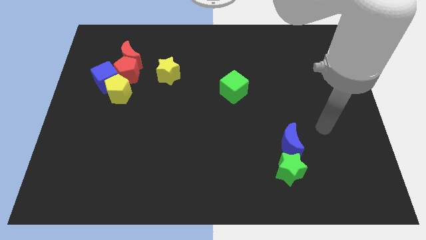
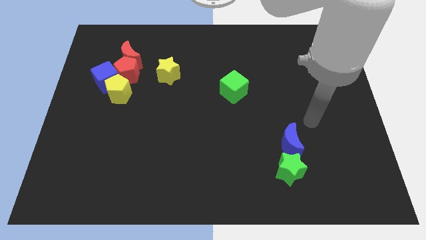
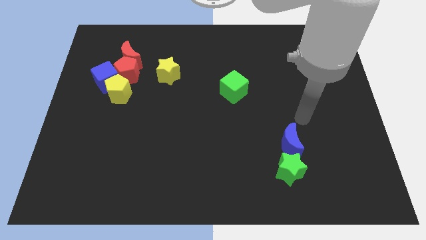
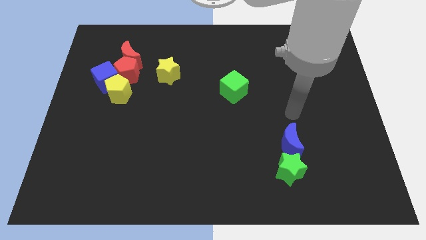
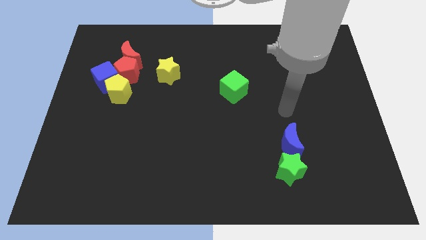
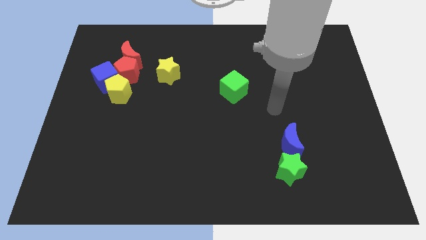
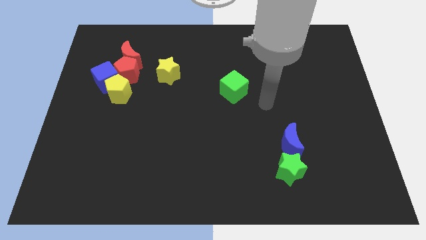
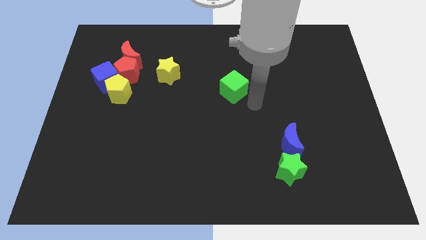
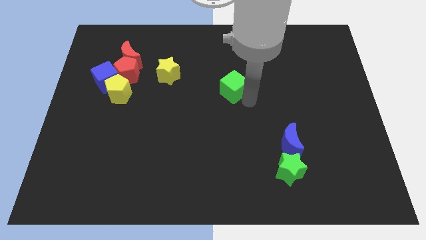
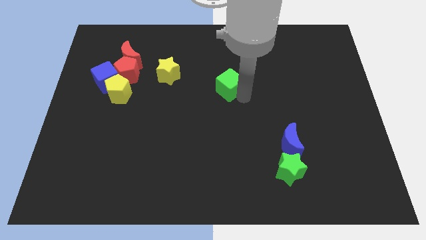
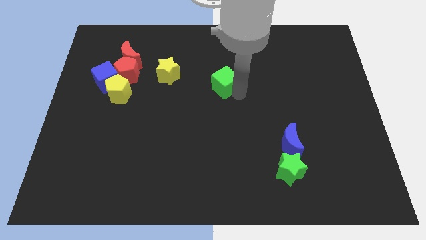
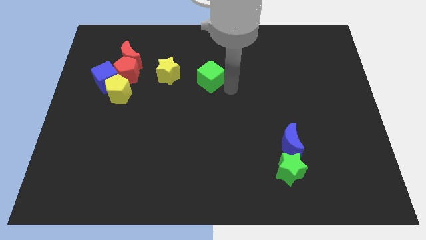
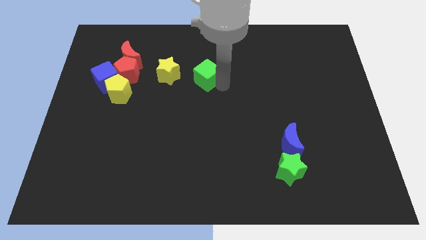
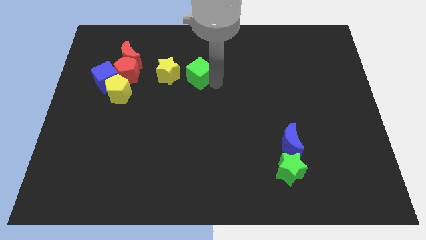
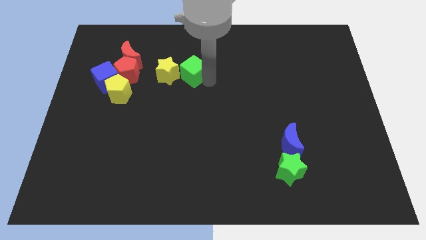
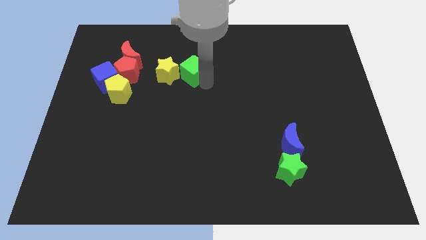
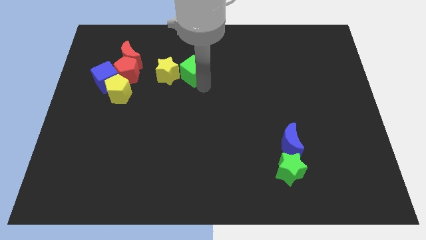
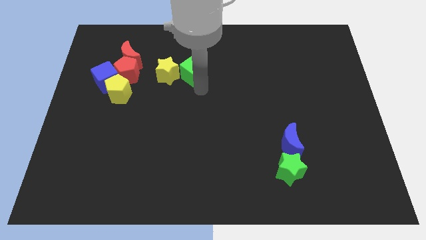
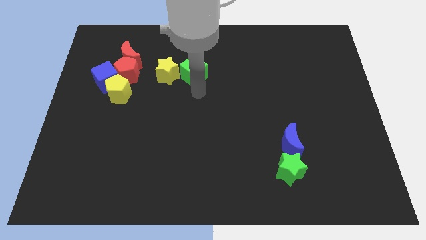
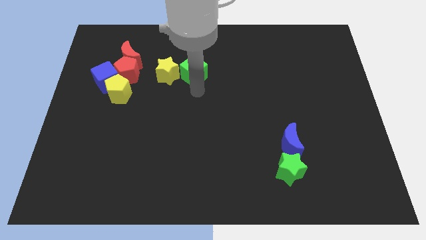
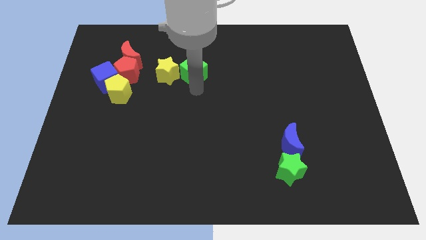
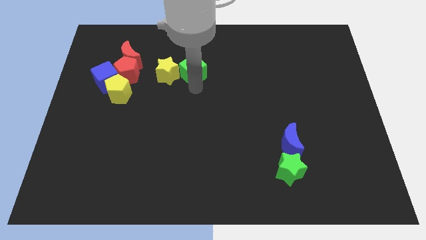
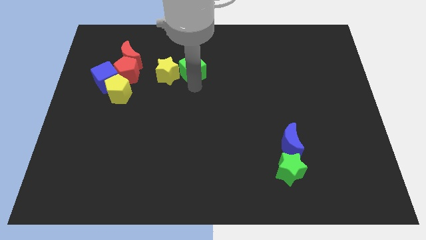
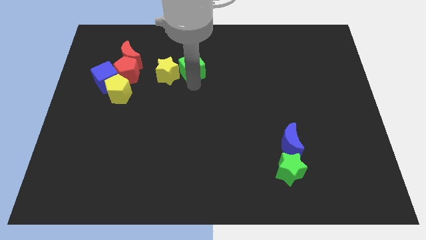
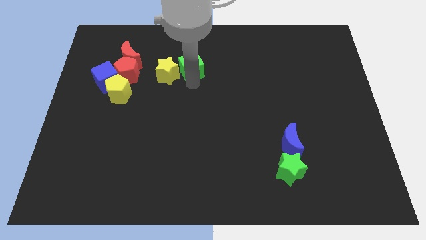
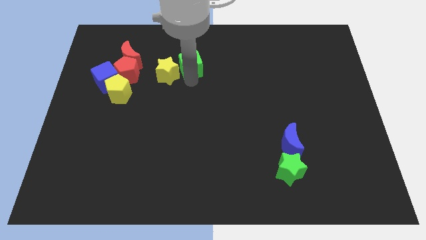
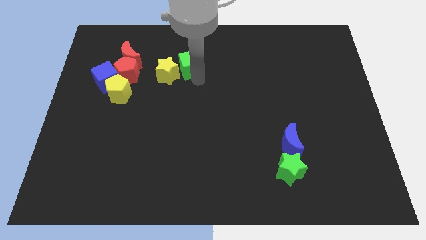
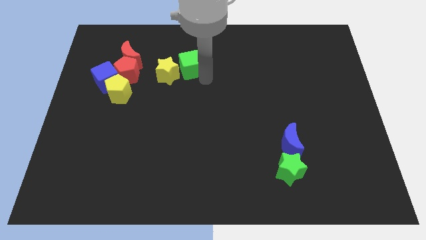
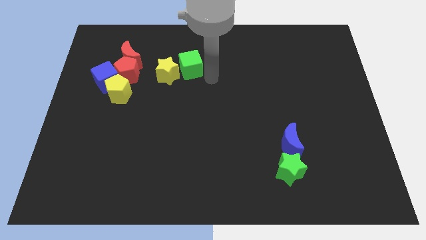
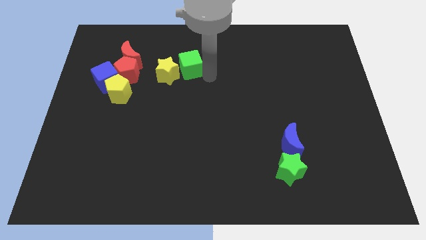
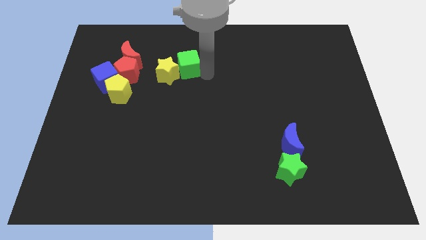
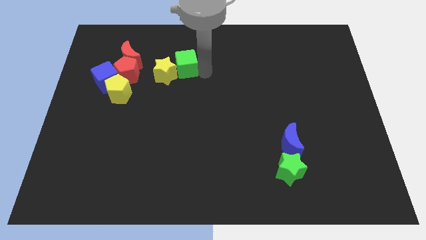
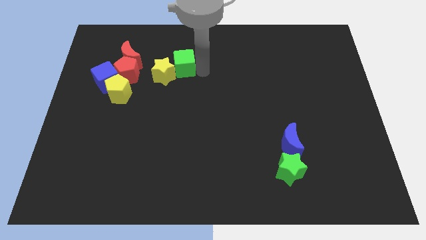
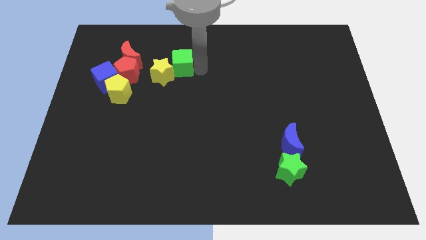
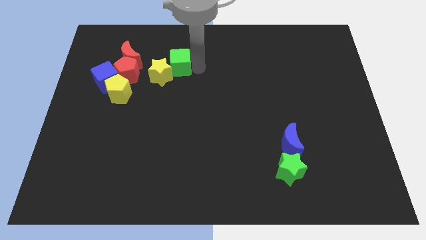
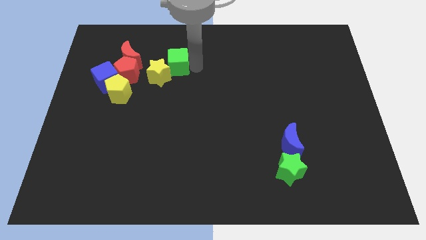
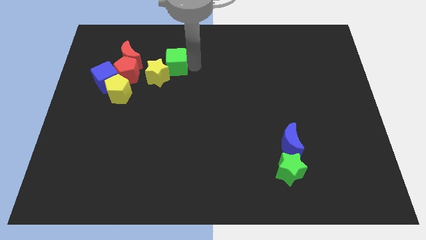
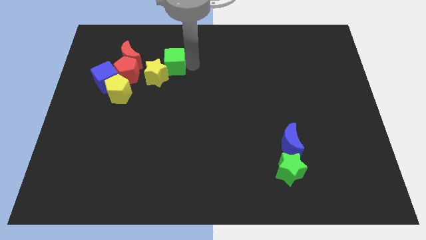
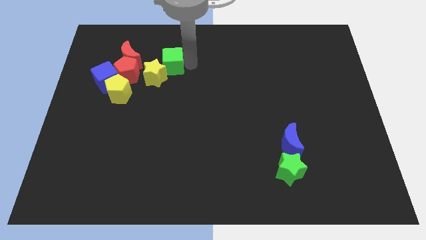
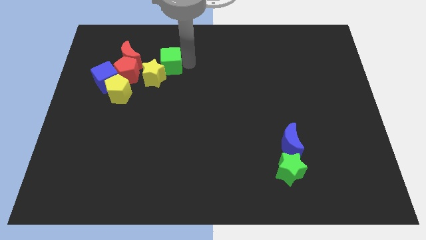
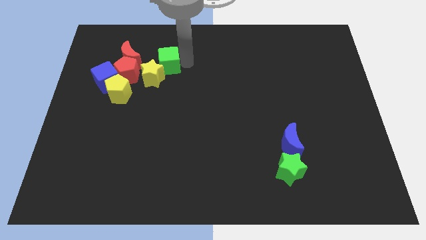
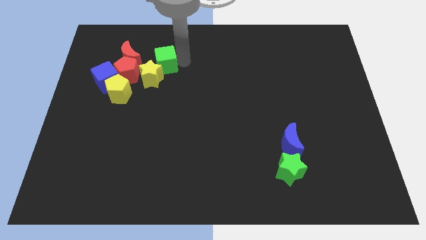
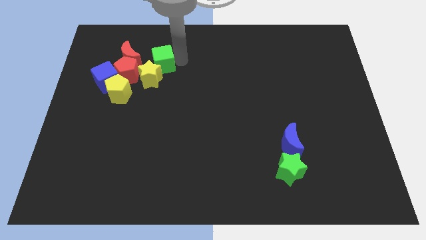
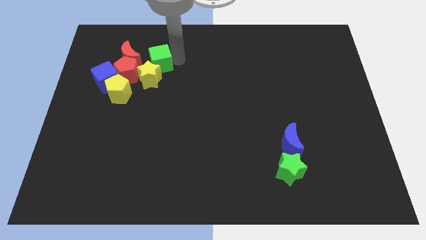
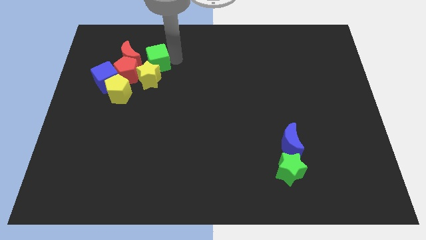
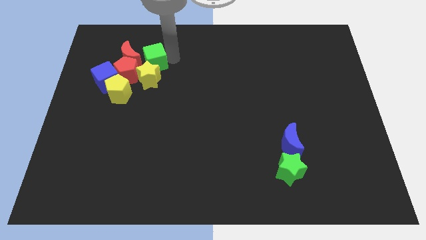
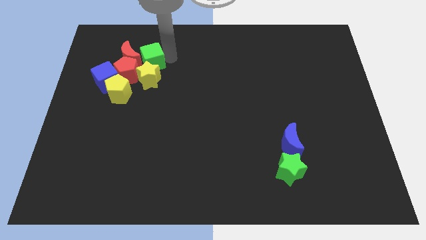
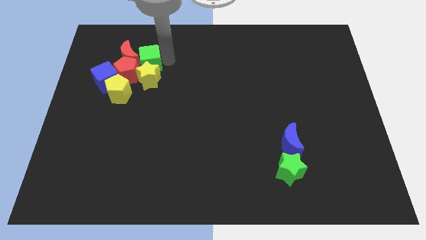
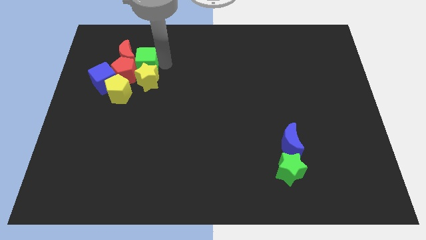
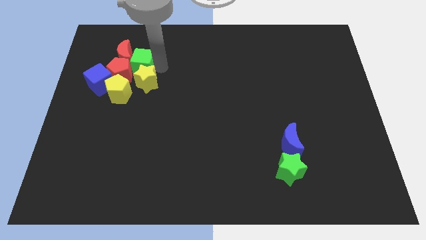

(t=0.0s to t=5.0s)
slide the green cube to the top side of the yellow pentagon

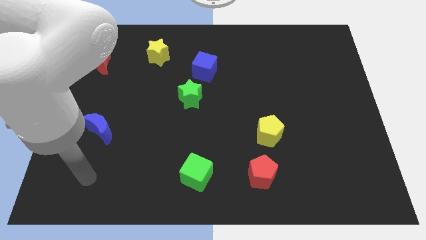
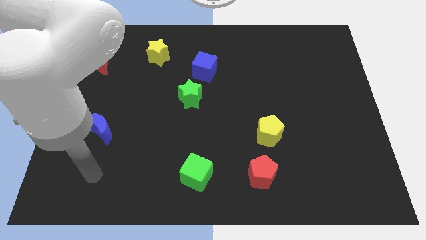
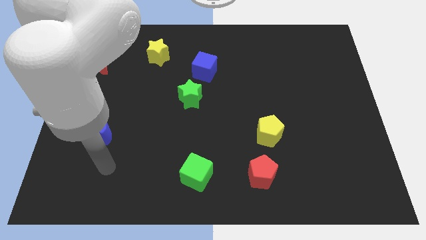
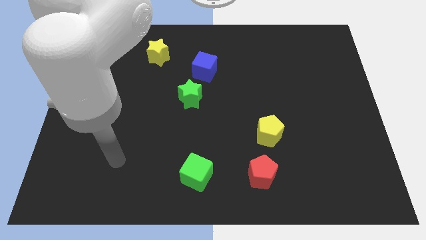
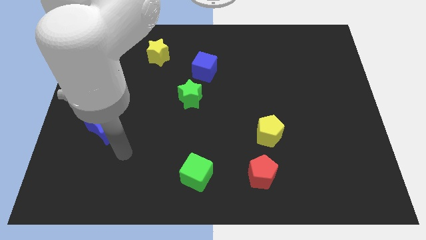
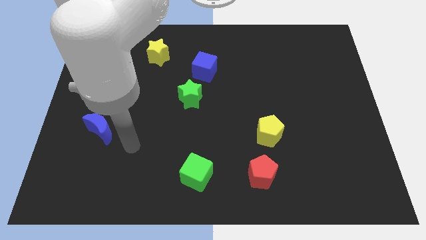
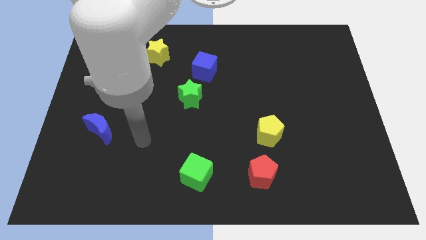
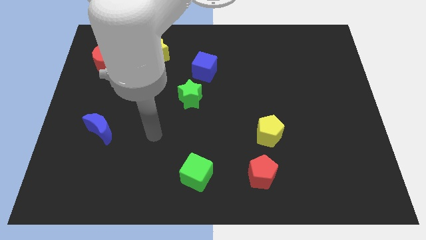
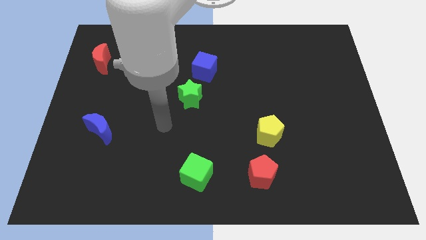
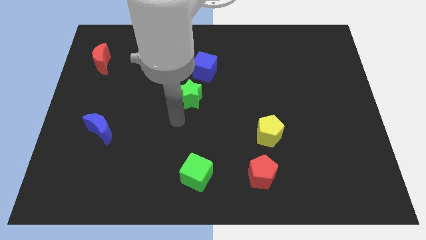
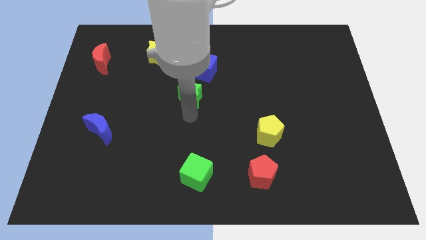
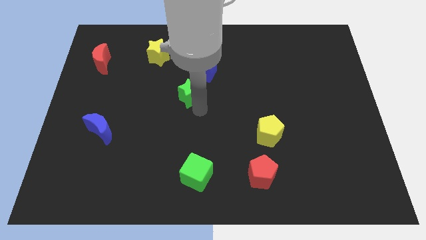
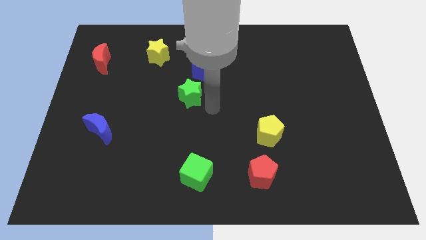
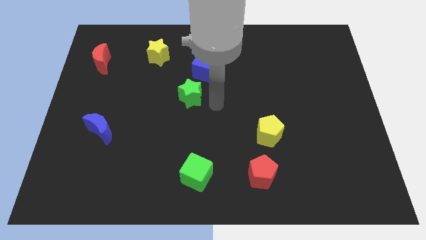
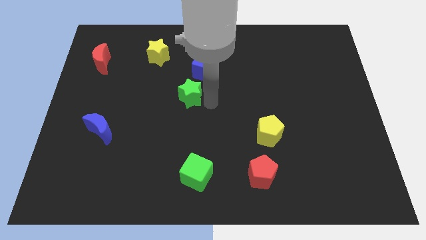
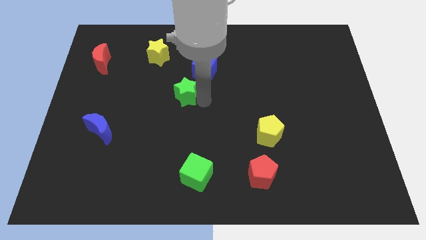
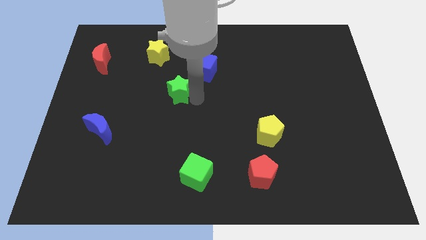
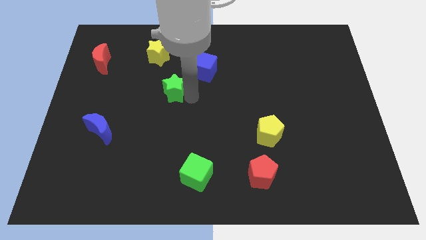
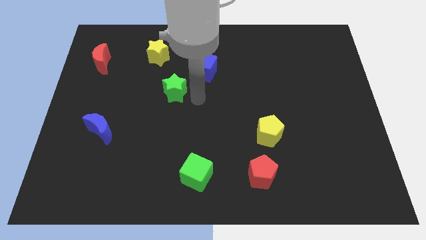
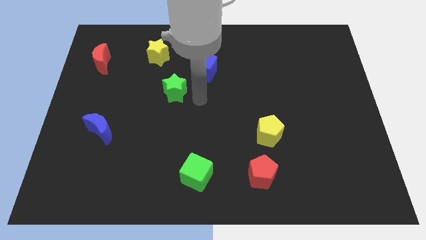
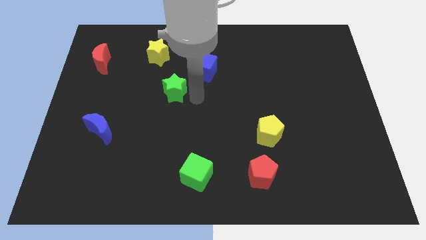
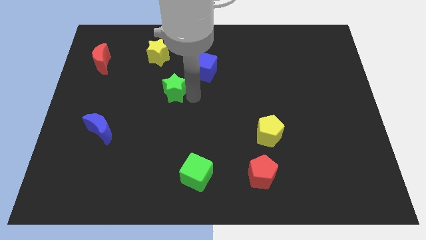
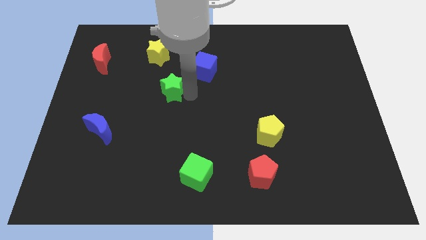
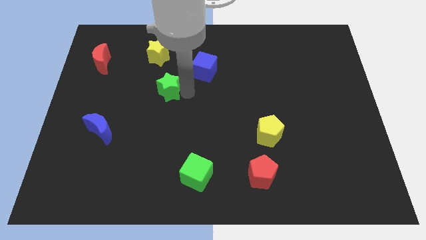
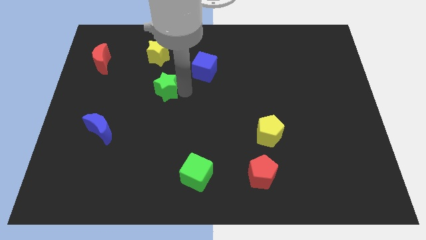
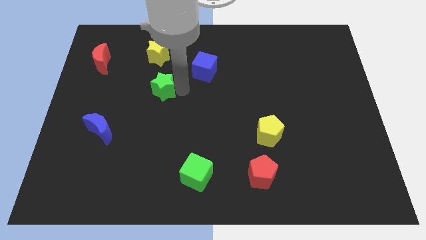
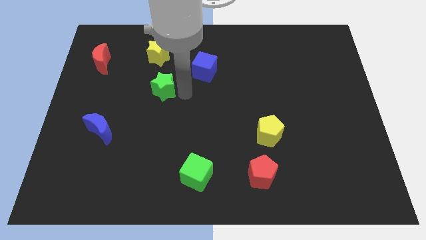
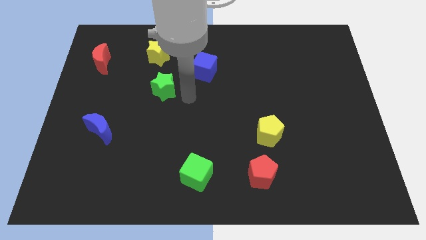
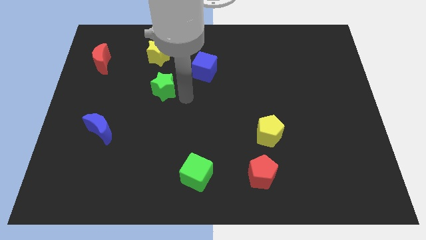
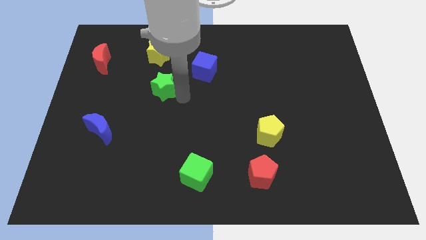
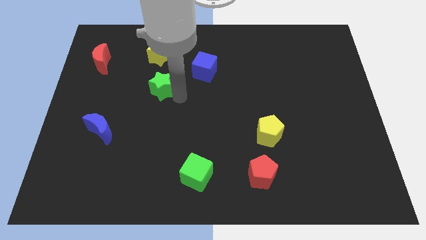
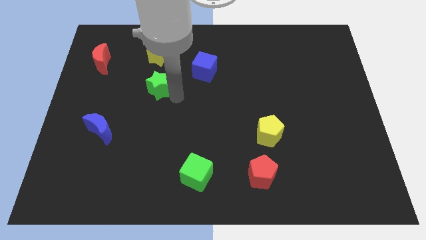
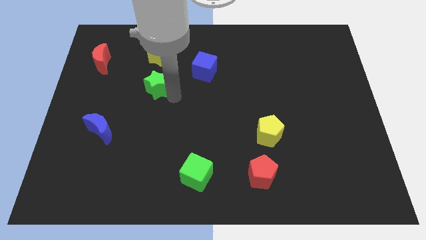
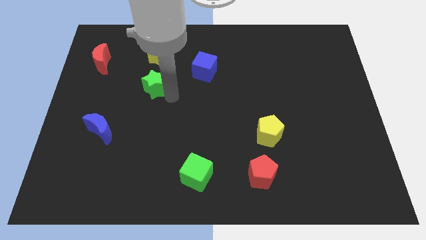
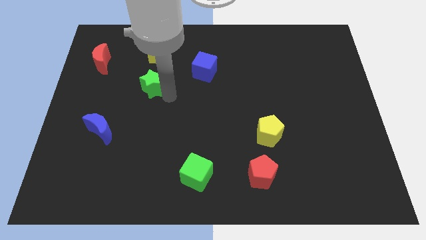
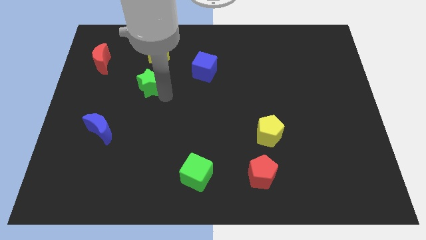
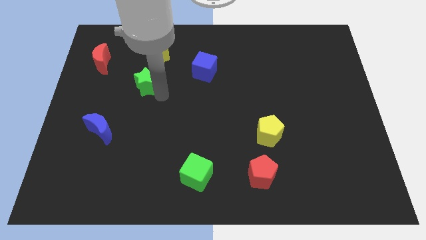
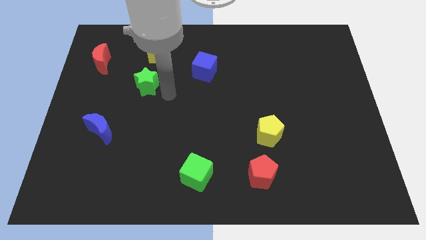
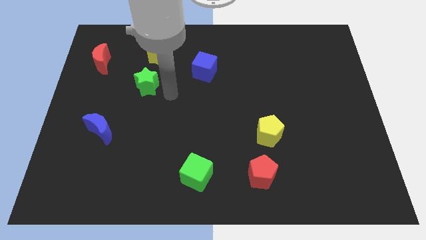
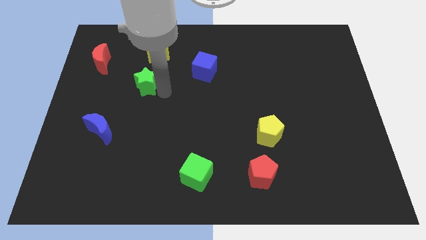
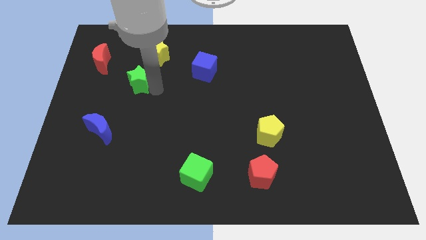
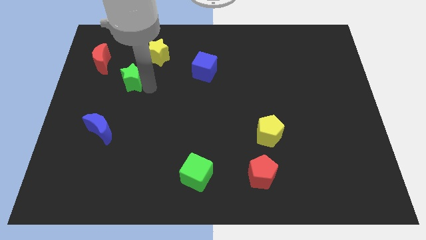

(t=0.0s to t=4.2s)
push the green star diagonally down and to the right of the red moon
